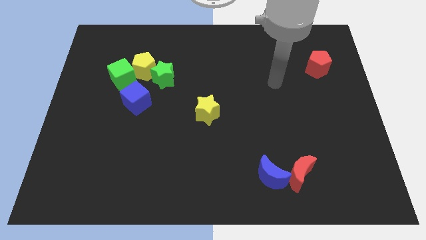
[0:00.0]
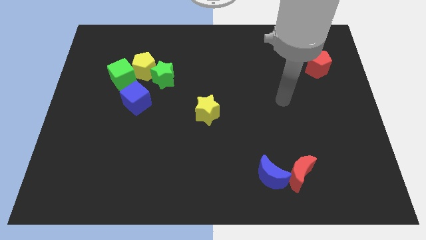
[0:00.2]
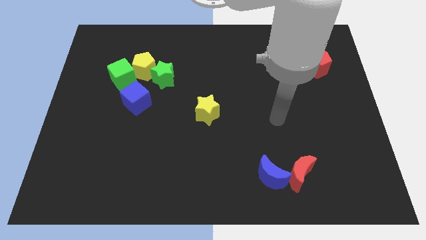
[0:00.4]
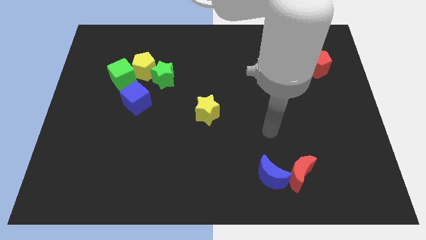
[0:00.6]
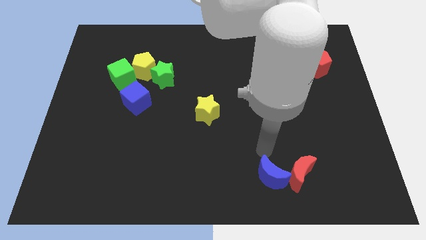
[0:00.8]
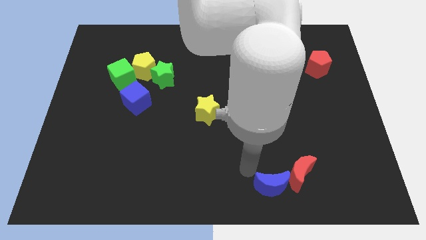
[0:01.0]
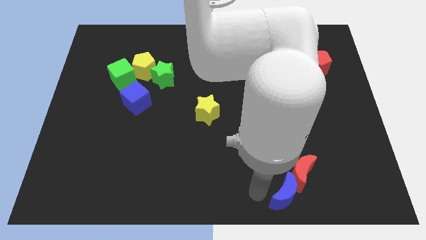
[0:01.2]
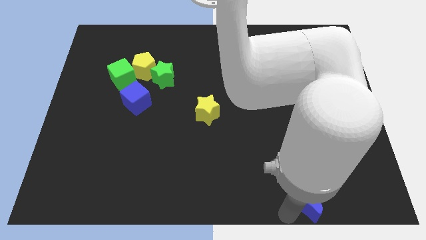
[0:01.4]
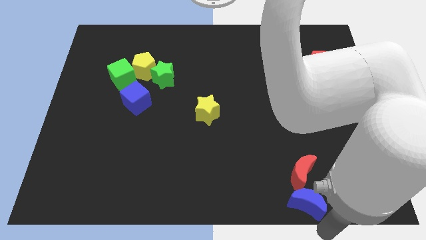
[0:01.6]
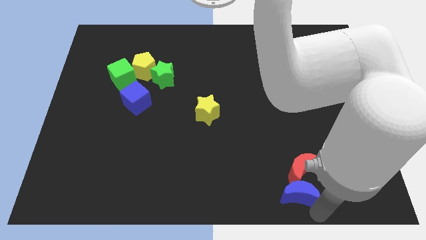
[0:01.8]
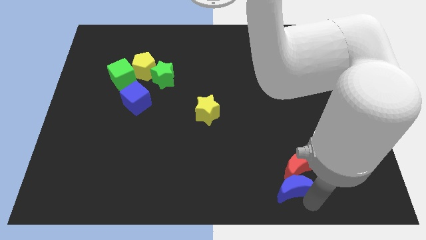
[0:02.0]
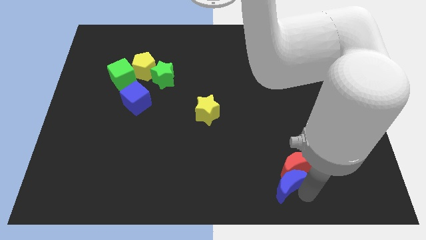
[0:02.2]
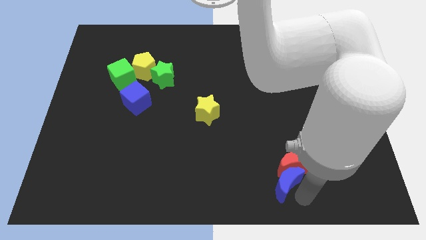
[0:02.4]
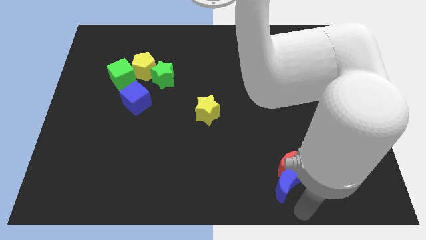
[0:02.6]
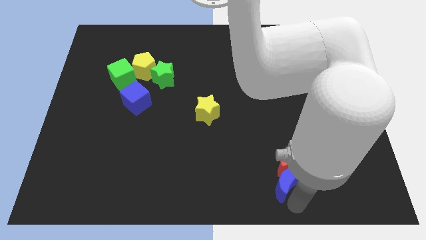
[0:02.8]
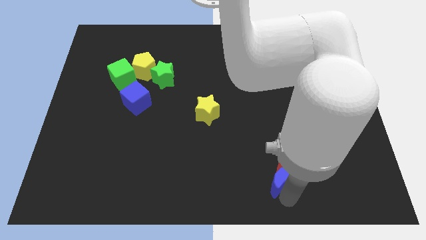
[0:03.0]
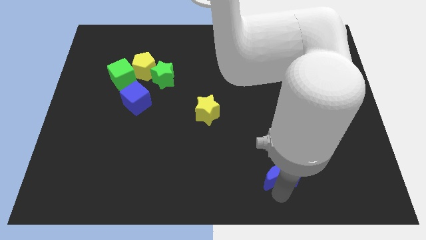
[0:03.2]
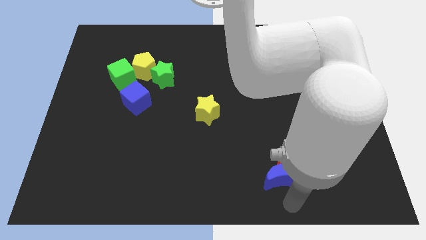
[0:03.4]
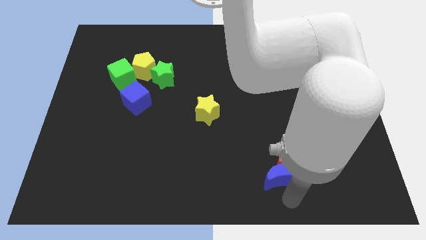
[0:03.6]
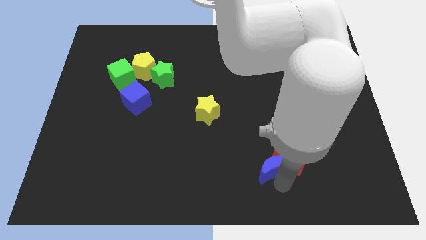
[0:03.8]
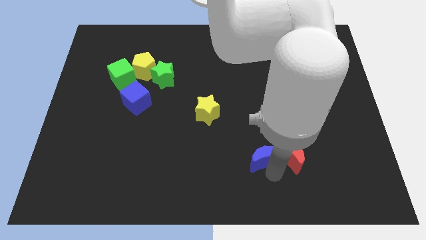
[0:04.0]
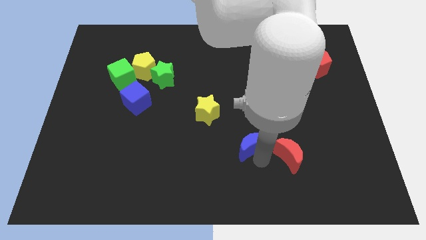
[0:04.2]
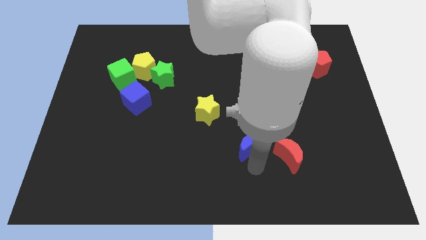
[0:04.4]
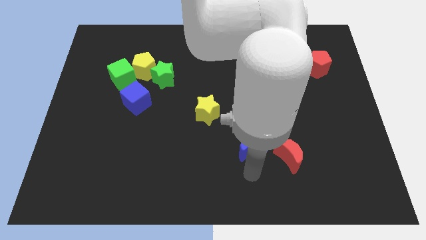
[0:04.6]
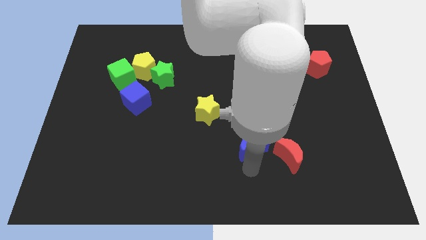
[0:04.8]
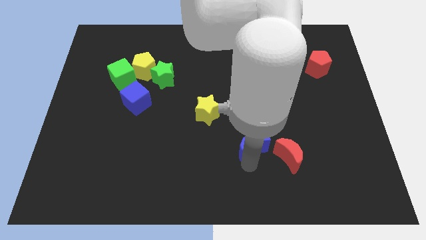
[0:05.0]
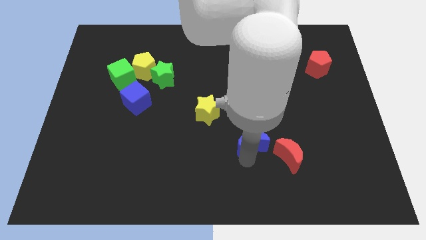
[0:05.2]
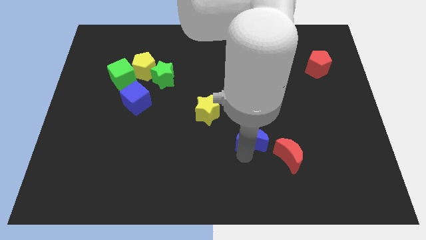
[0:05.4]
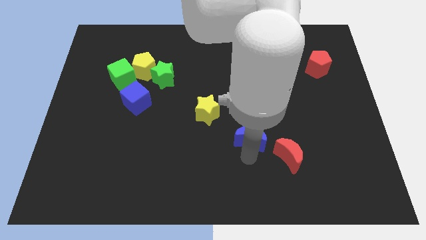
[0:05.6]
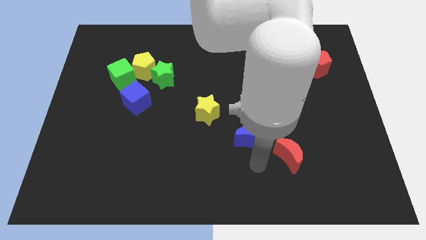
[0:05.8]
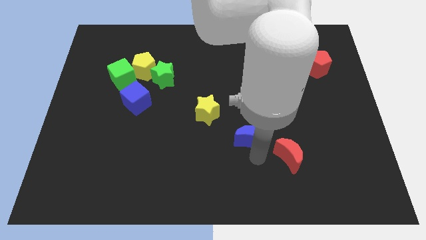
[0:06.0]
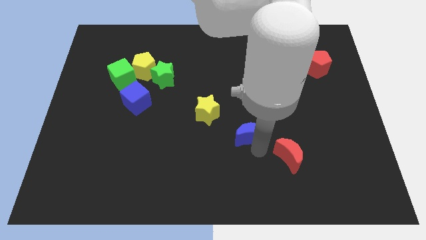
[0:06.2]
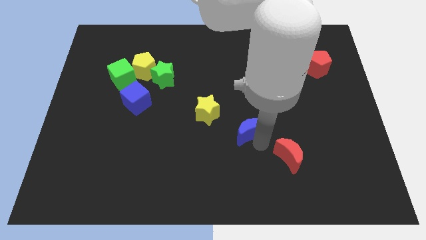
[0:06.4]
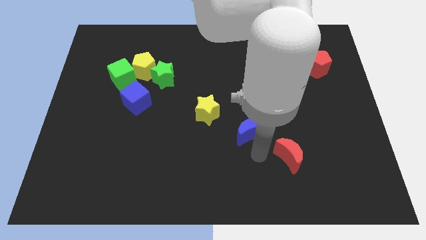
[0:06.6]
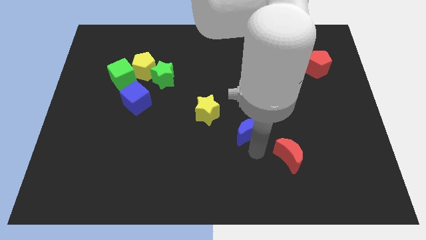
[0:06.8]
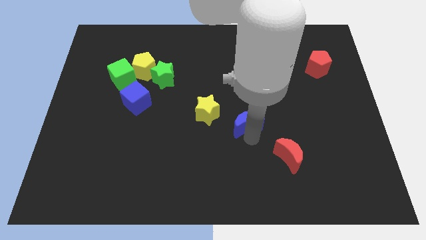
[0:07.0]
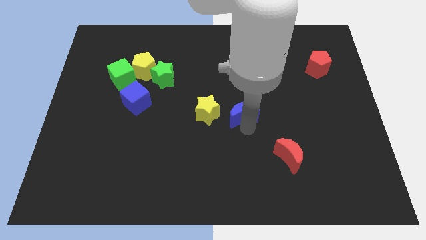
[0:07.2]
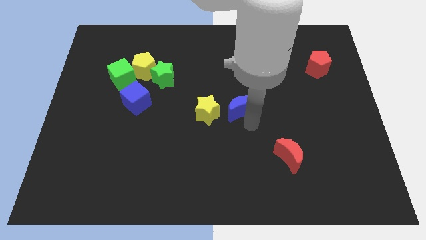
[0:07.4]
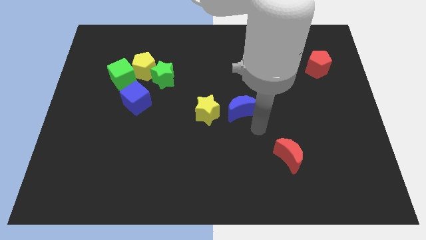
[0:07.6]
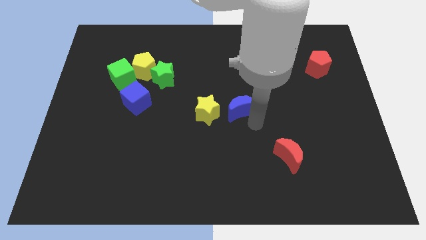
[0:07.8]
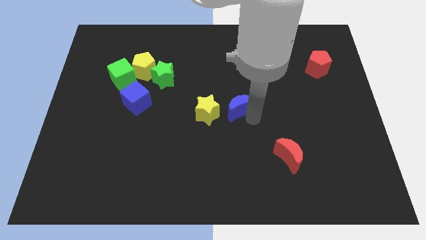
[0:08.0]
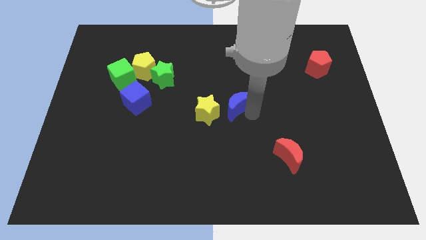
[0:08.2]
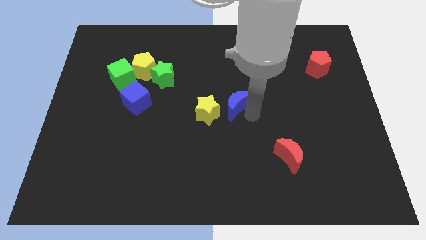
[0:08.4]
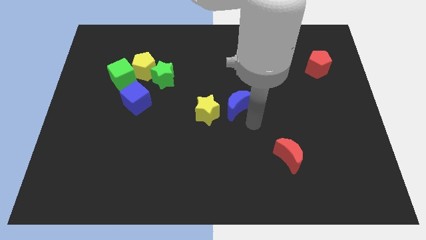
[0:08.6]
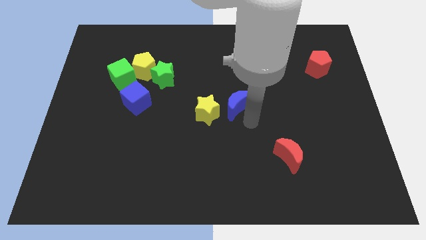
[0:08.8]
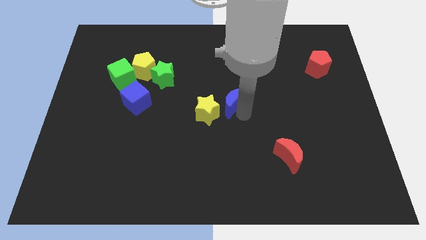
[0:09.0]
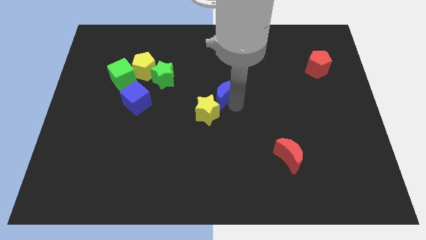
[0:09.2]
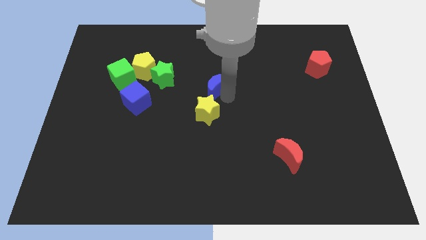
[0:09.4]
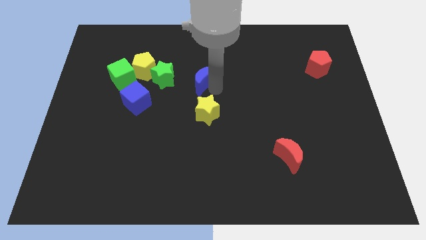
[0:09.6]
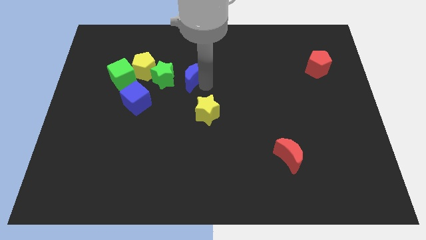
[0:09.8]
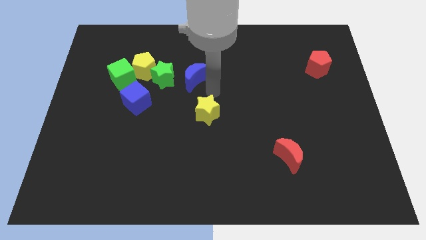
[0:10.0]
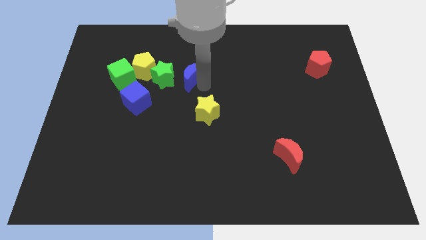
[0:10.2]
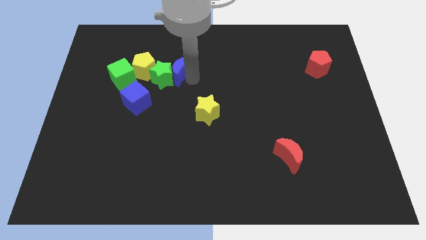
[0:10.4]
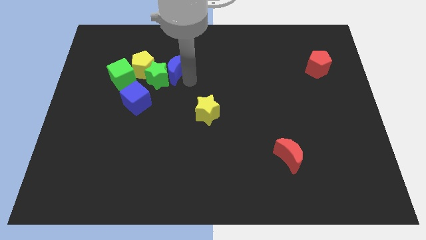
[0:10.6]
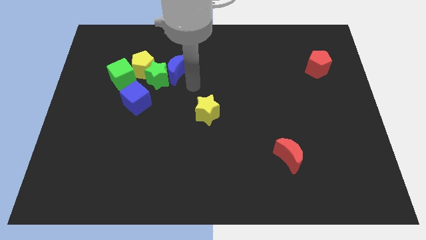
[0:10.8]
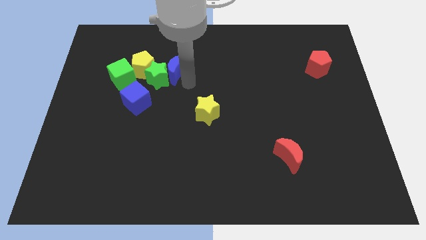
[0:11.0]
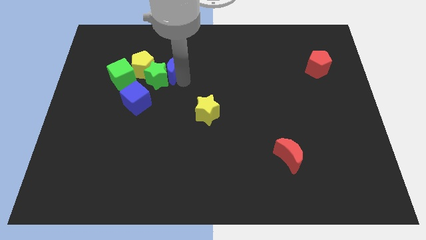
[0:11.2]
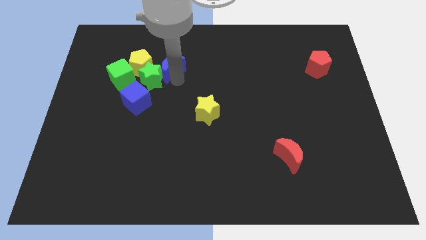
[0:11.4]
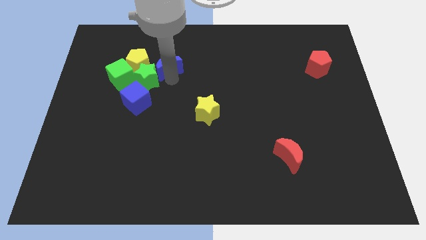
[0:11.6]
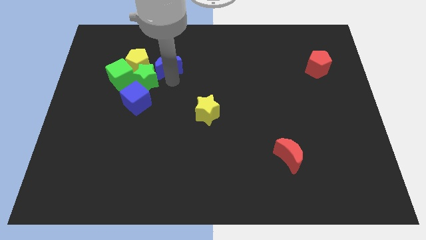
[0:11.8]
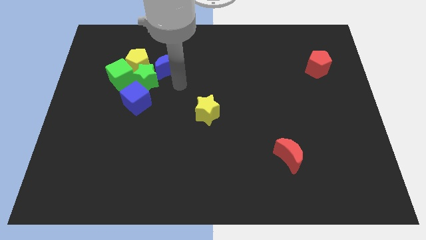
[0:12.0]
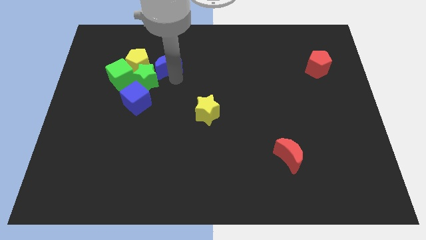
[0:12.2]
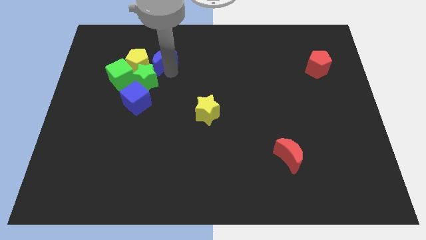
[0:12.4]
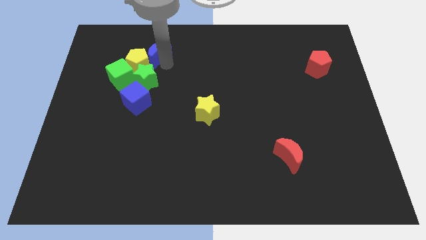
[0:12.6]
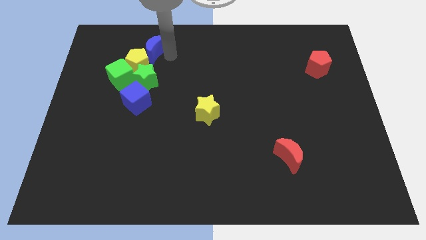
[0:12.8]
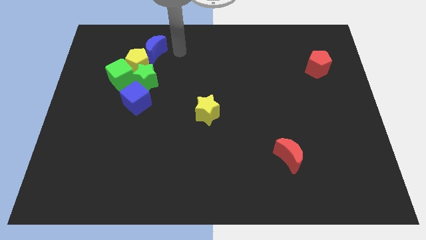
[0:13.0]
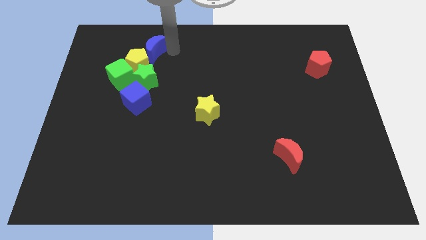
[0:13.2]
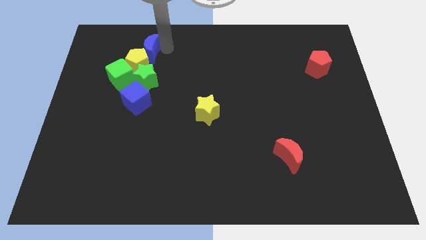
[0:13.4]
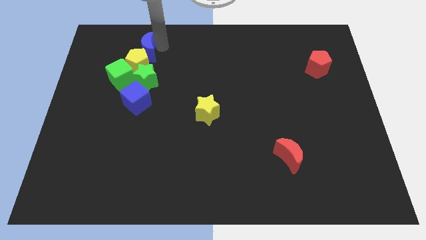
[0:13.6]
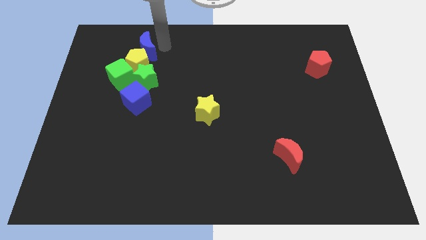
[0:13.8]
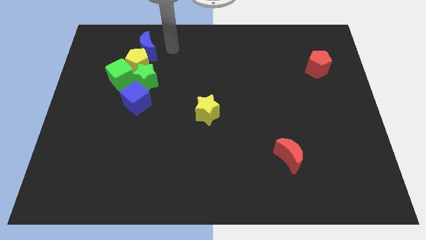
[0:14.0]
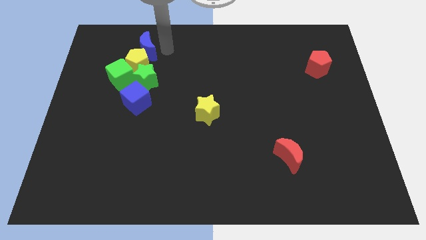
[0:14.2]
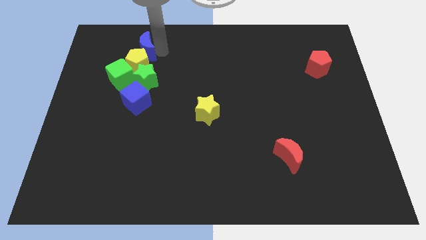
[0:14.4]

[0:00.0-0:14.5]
put the blue moon to the top left of the yellow pentagon

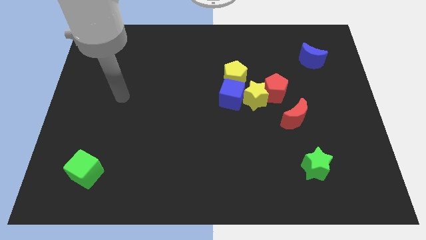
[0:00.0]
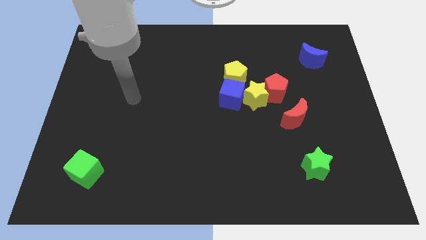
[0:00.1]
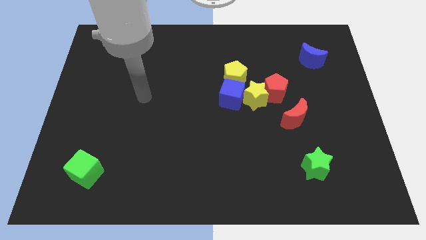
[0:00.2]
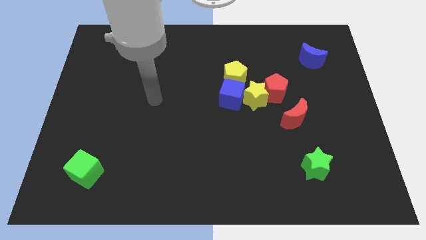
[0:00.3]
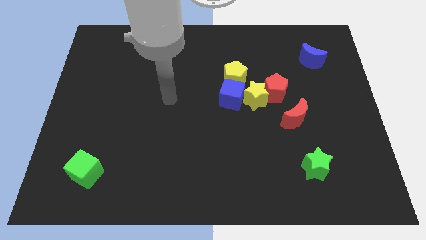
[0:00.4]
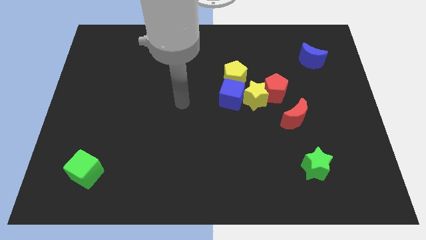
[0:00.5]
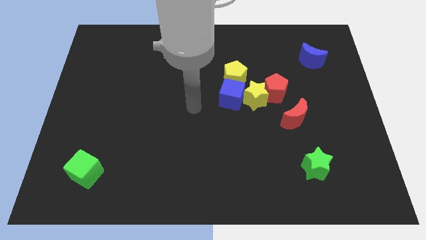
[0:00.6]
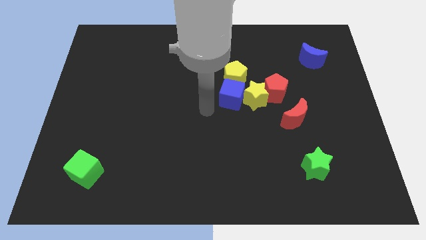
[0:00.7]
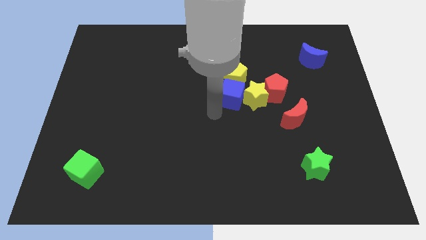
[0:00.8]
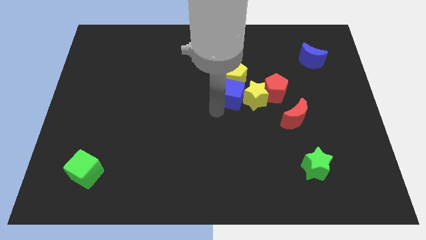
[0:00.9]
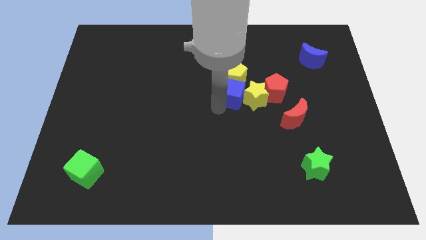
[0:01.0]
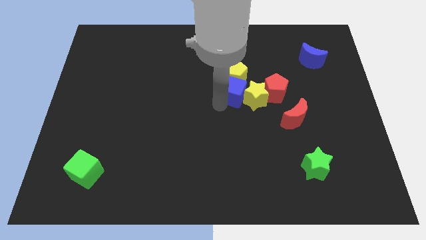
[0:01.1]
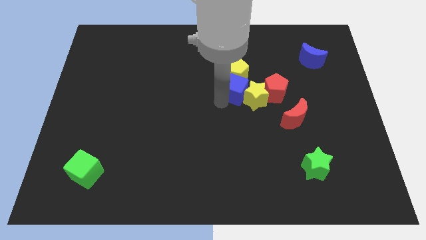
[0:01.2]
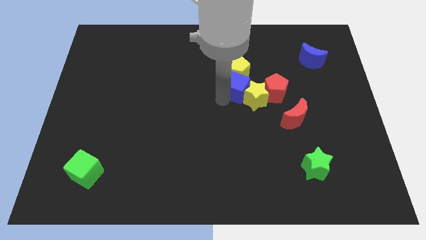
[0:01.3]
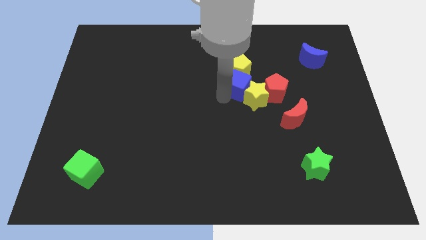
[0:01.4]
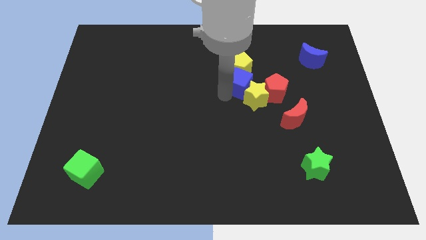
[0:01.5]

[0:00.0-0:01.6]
slide the blue cube to the top left side of the red pentagon
